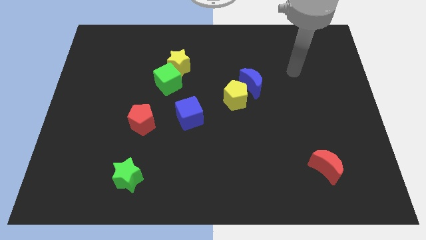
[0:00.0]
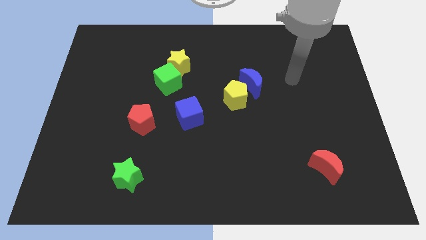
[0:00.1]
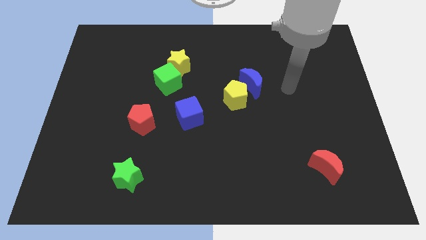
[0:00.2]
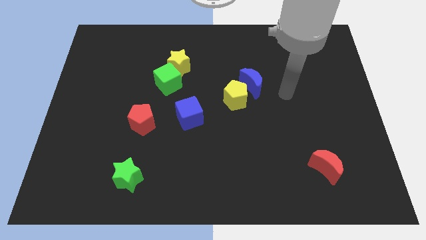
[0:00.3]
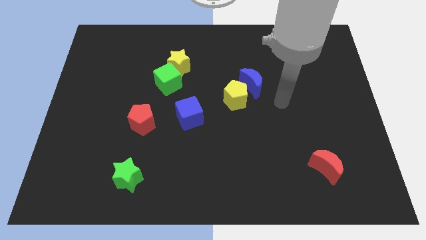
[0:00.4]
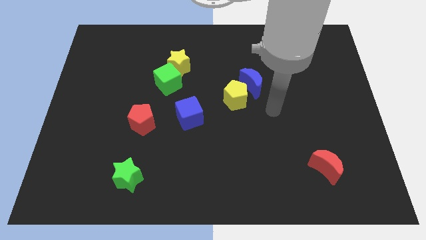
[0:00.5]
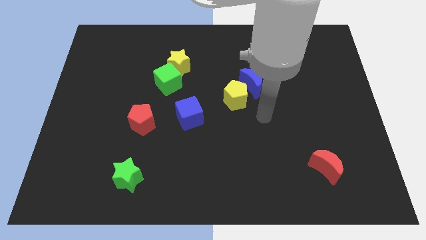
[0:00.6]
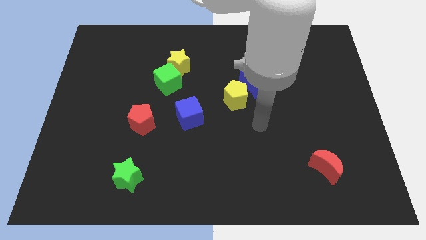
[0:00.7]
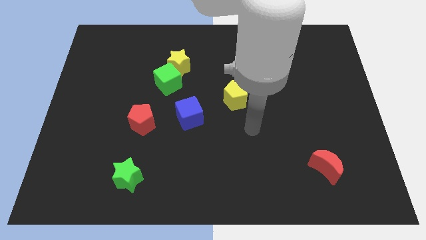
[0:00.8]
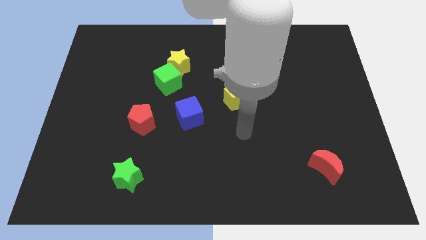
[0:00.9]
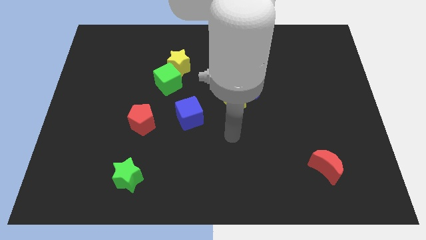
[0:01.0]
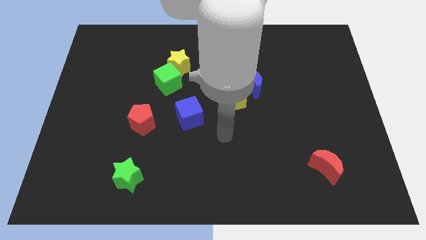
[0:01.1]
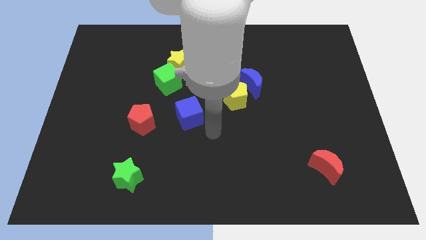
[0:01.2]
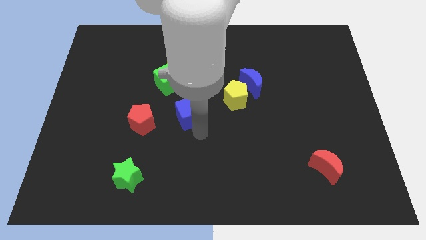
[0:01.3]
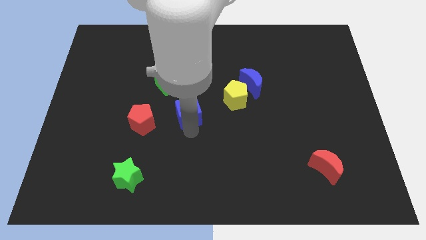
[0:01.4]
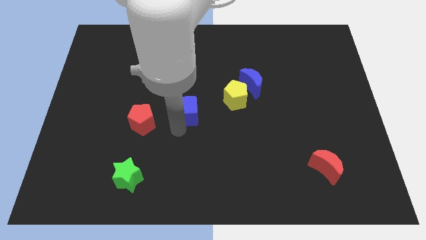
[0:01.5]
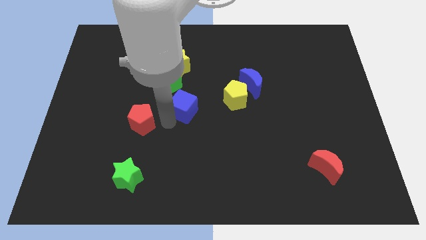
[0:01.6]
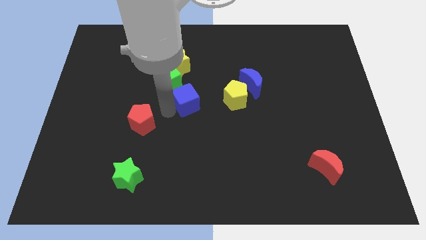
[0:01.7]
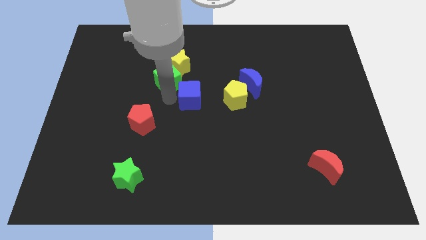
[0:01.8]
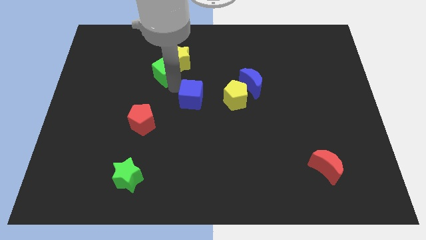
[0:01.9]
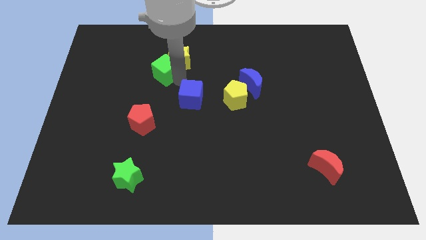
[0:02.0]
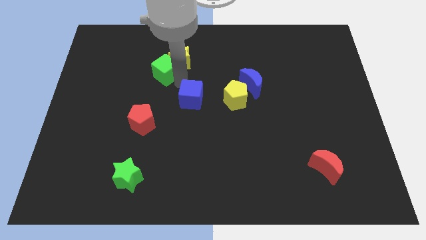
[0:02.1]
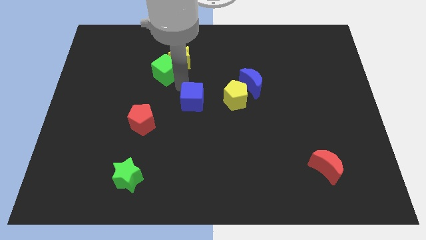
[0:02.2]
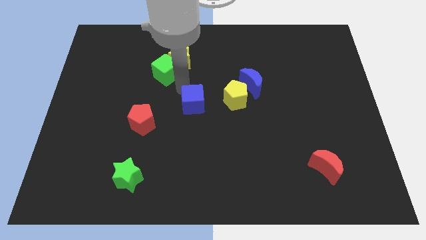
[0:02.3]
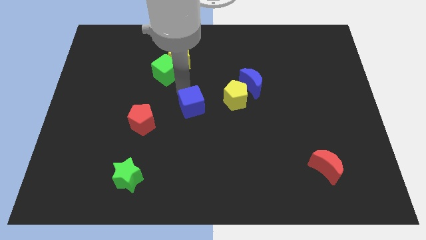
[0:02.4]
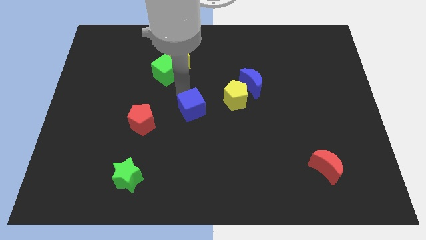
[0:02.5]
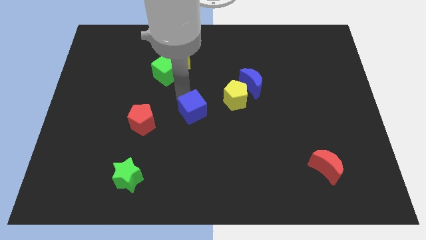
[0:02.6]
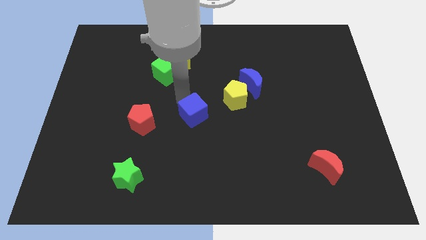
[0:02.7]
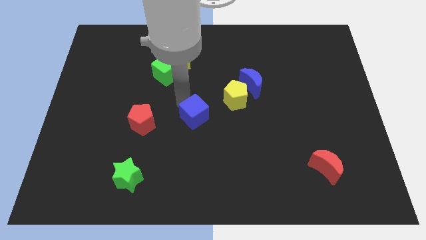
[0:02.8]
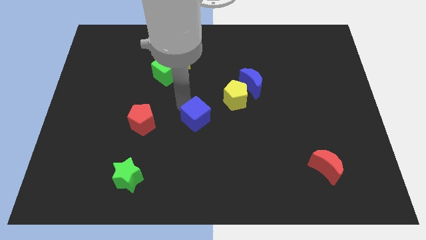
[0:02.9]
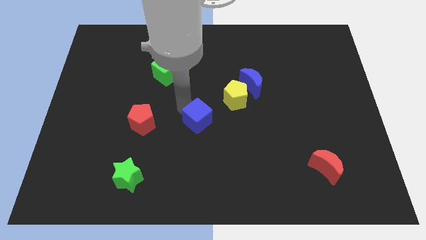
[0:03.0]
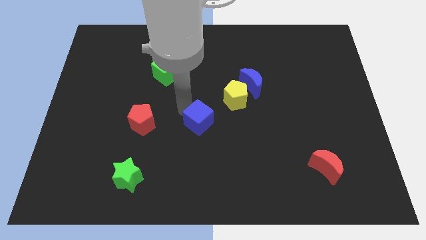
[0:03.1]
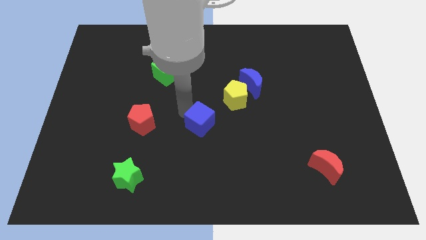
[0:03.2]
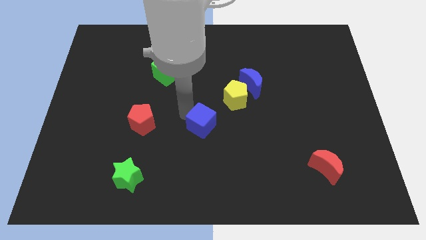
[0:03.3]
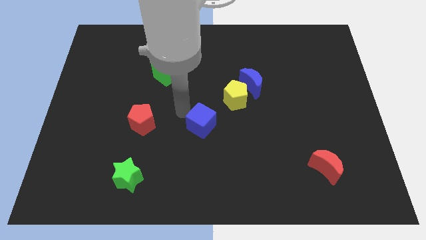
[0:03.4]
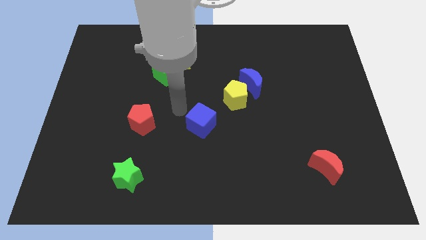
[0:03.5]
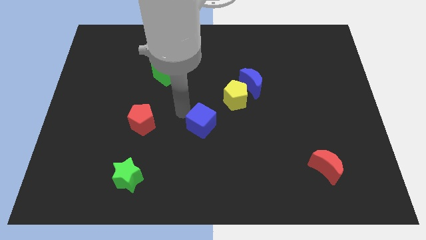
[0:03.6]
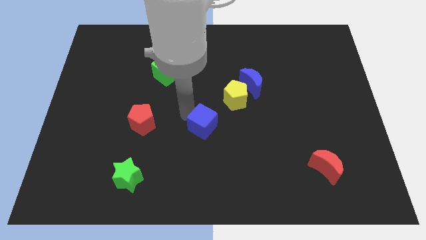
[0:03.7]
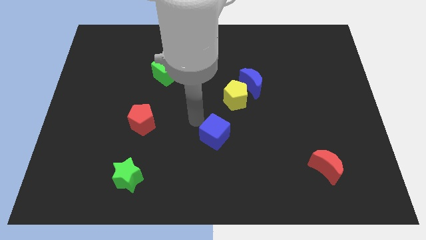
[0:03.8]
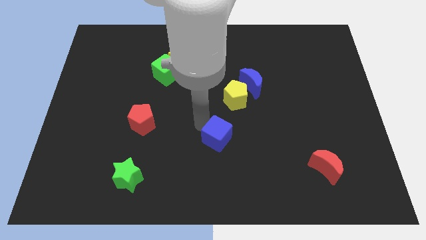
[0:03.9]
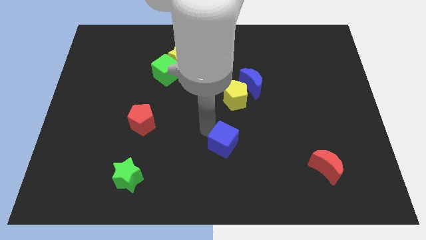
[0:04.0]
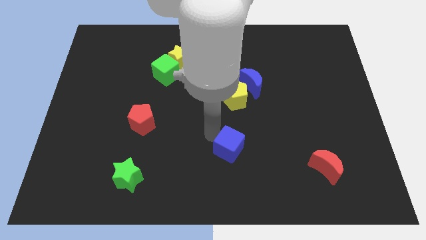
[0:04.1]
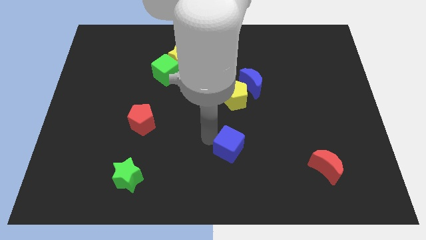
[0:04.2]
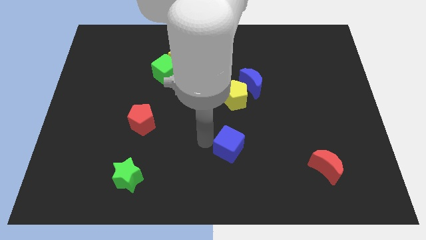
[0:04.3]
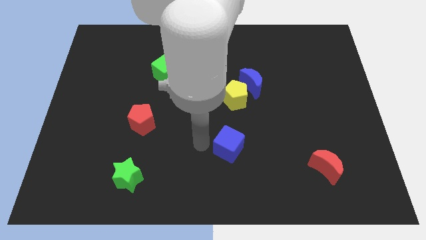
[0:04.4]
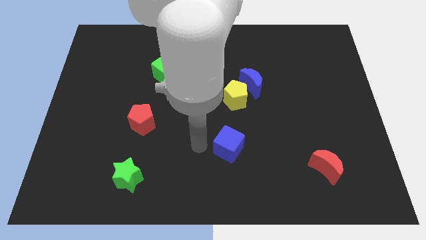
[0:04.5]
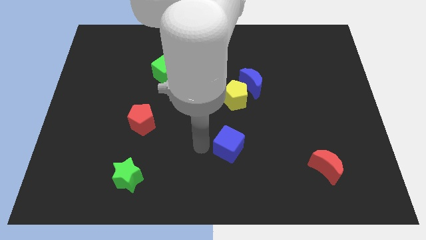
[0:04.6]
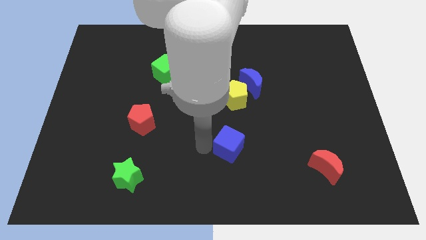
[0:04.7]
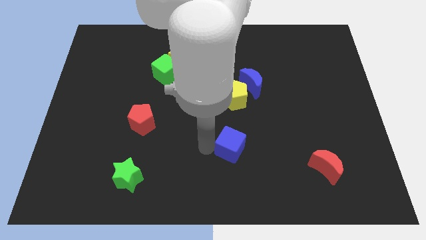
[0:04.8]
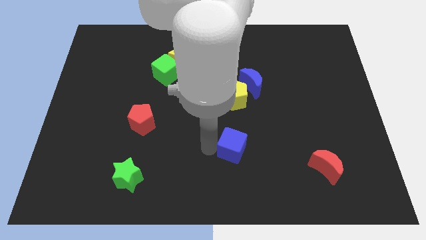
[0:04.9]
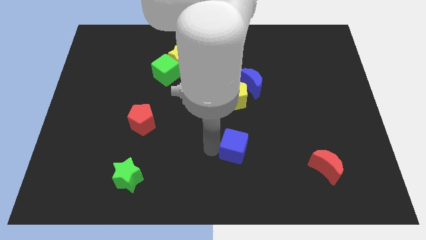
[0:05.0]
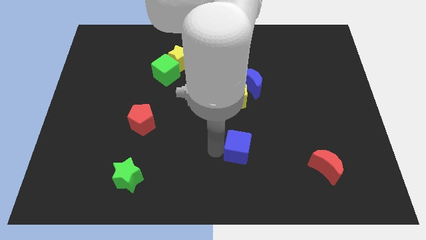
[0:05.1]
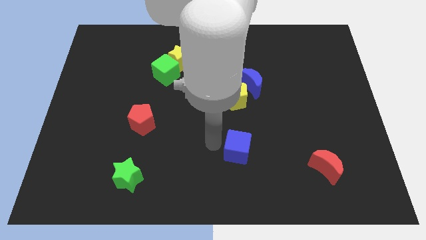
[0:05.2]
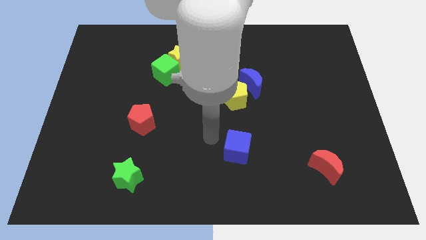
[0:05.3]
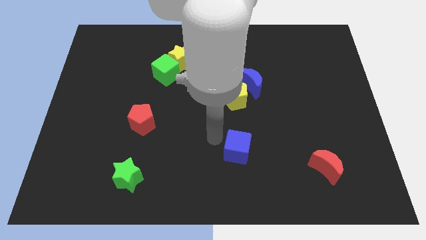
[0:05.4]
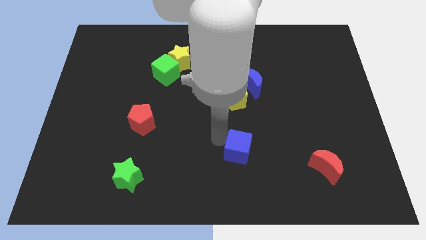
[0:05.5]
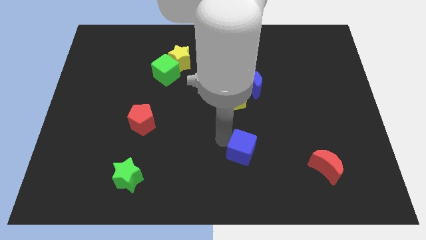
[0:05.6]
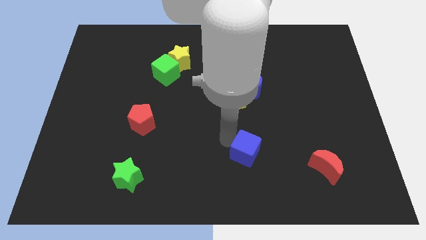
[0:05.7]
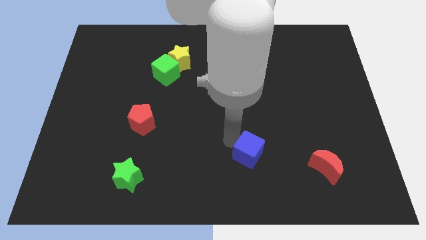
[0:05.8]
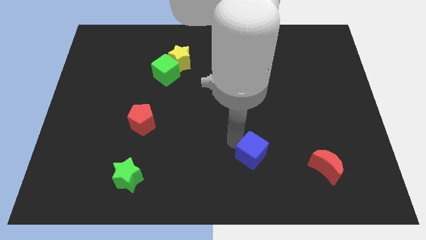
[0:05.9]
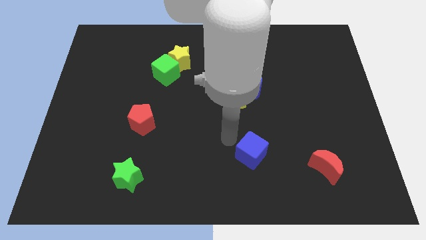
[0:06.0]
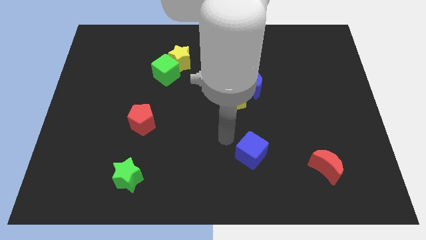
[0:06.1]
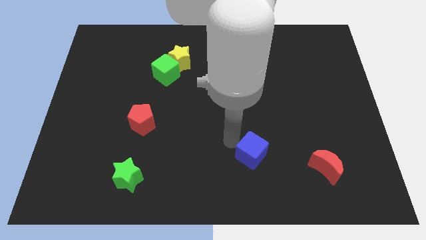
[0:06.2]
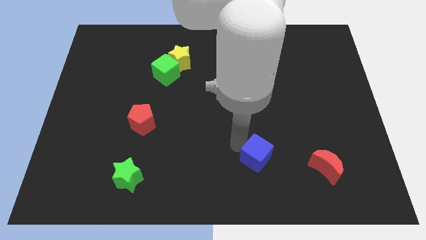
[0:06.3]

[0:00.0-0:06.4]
push the blue cube to the left of the red moon

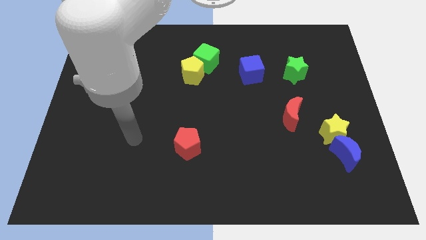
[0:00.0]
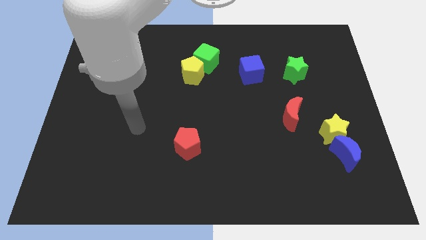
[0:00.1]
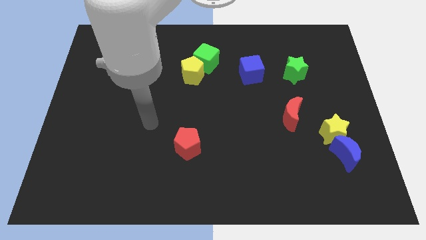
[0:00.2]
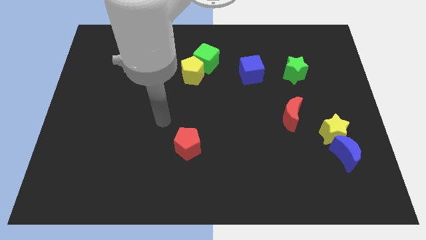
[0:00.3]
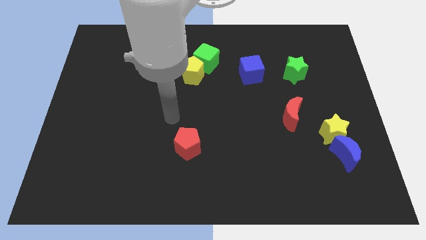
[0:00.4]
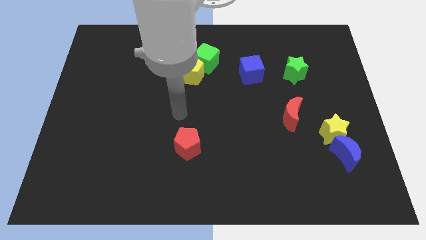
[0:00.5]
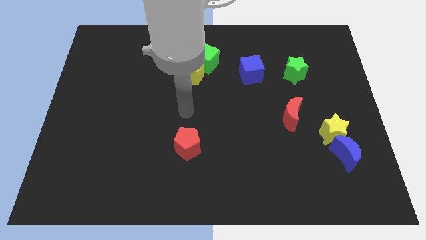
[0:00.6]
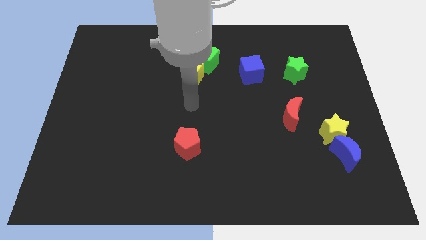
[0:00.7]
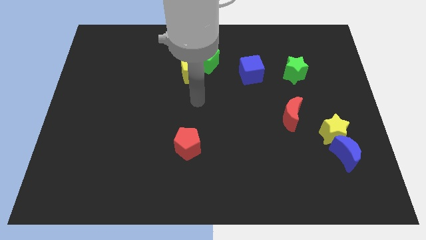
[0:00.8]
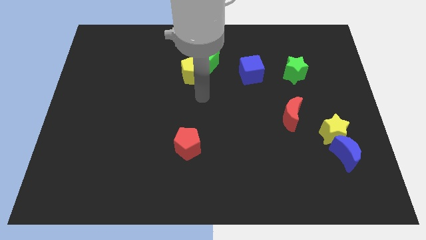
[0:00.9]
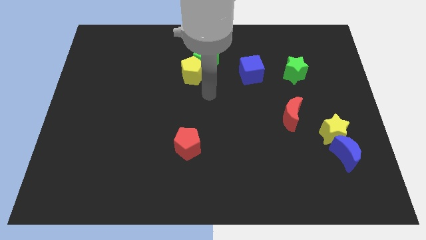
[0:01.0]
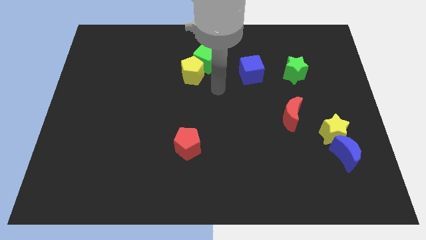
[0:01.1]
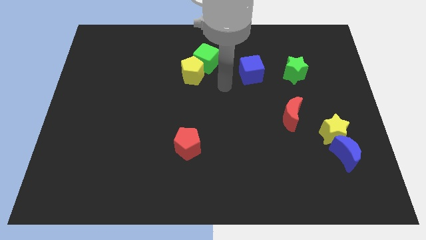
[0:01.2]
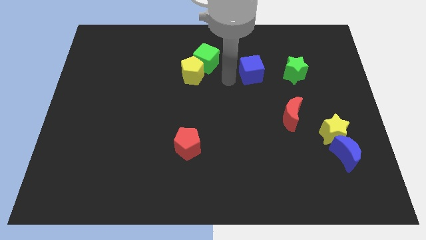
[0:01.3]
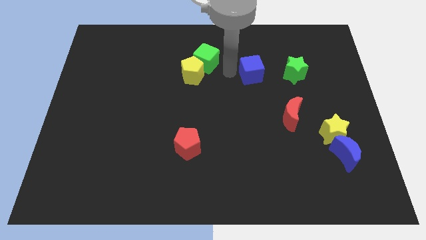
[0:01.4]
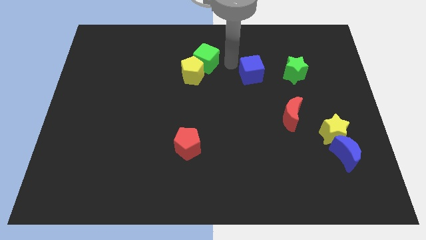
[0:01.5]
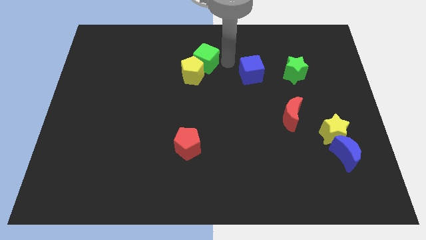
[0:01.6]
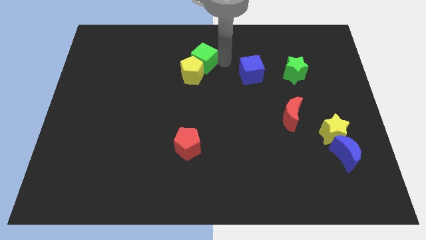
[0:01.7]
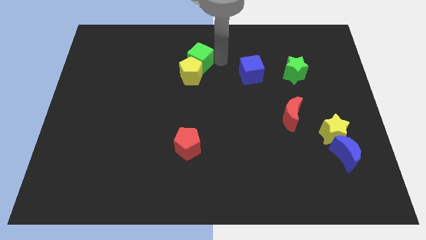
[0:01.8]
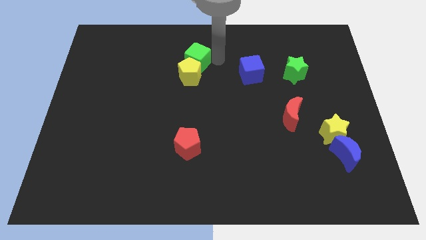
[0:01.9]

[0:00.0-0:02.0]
put the green cube to the top left of the yellow pentagon
